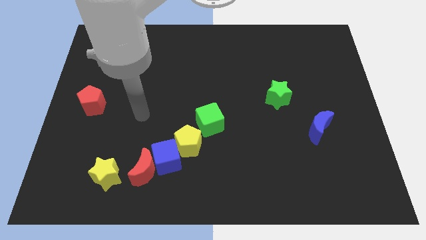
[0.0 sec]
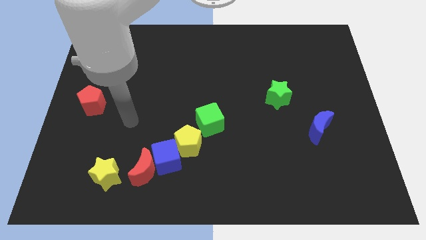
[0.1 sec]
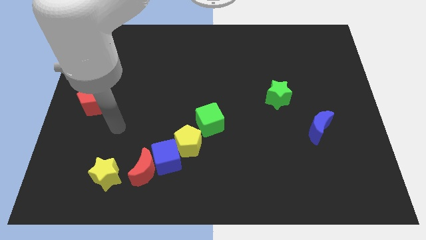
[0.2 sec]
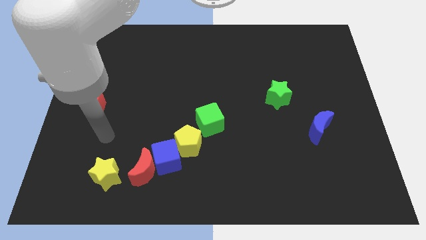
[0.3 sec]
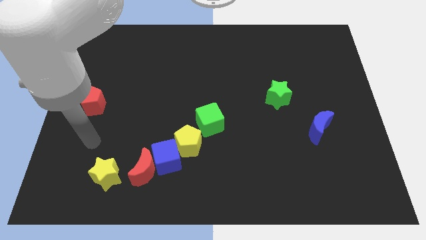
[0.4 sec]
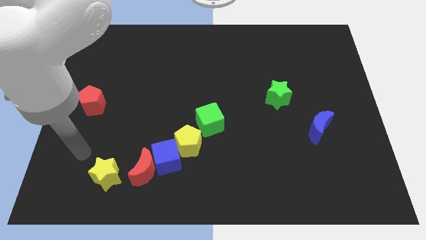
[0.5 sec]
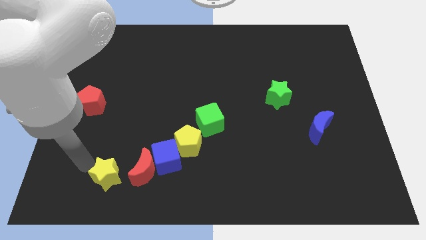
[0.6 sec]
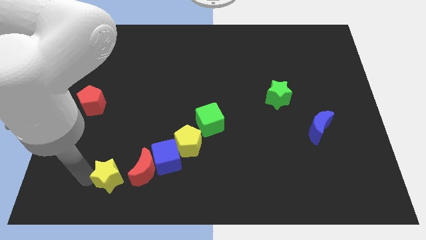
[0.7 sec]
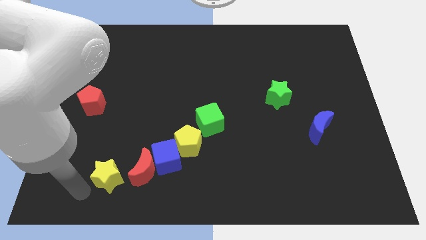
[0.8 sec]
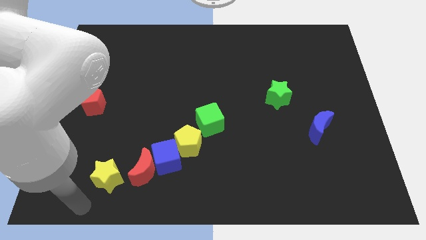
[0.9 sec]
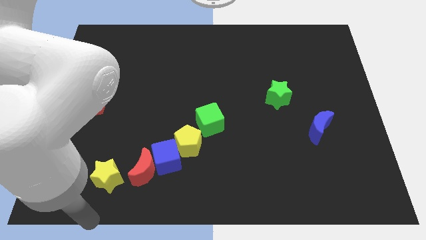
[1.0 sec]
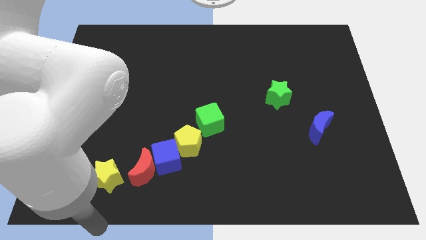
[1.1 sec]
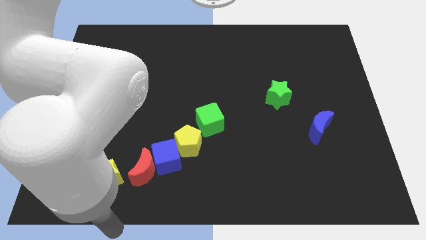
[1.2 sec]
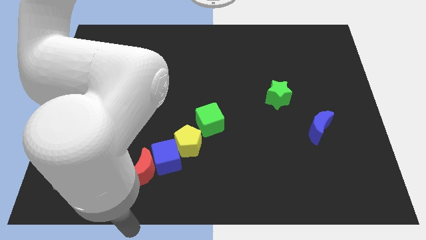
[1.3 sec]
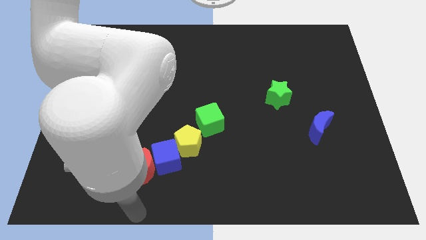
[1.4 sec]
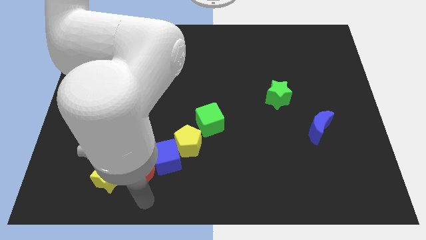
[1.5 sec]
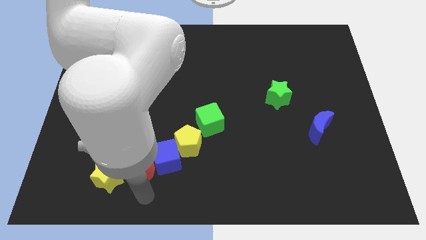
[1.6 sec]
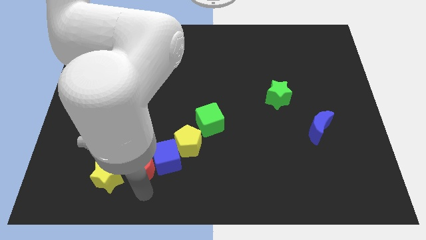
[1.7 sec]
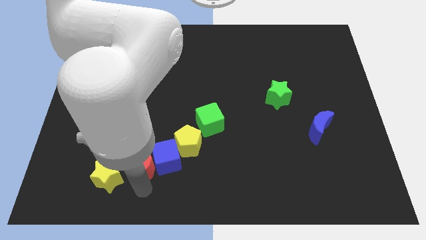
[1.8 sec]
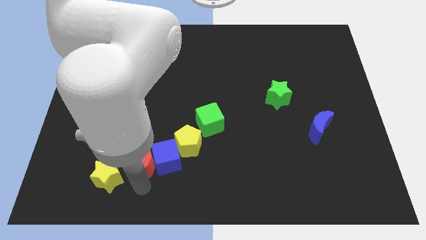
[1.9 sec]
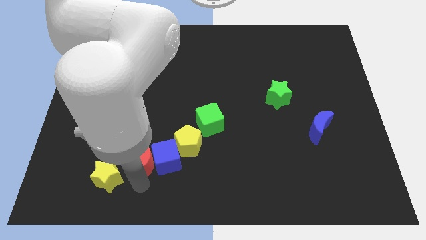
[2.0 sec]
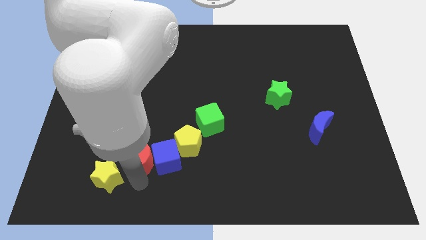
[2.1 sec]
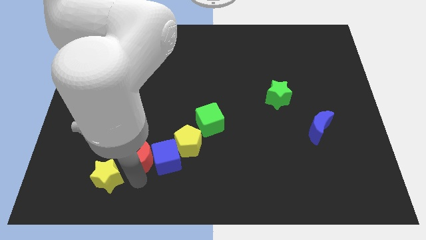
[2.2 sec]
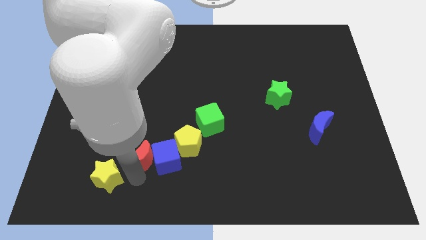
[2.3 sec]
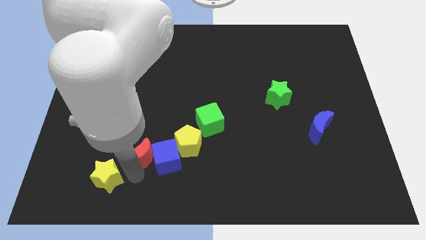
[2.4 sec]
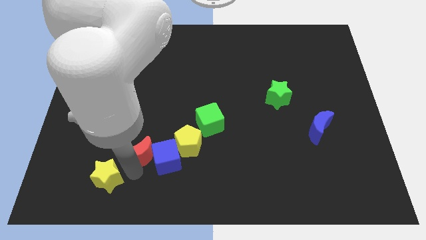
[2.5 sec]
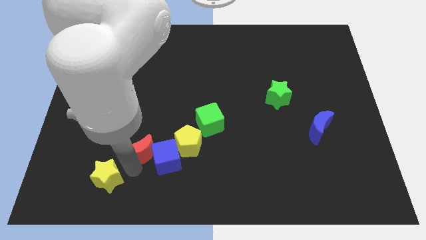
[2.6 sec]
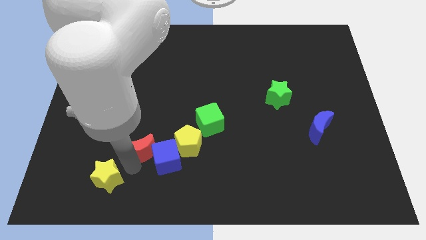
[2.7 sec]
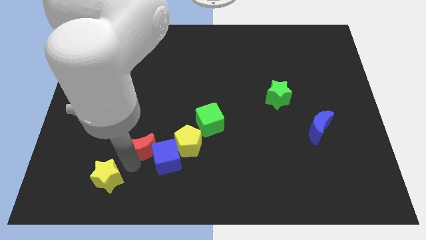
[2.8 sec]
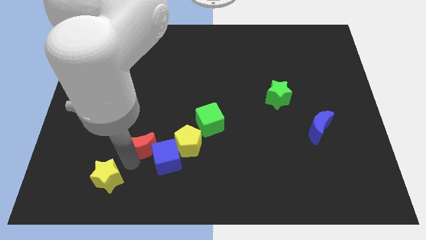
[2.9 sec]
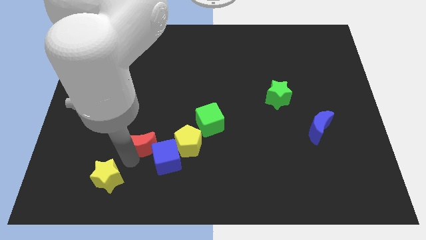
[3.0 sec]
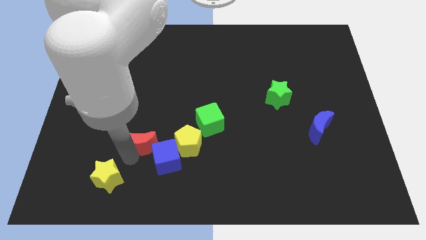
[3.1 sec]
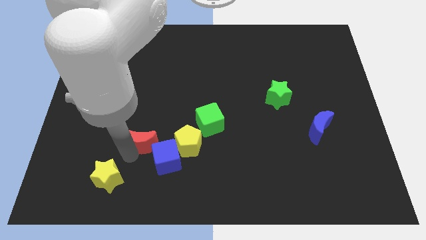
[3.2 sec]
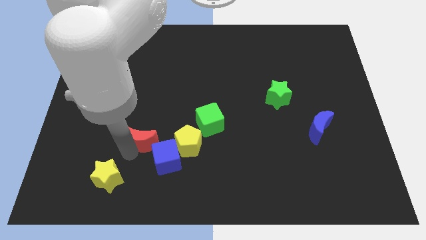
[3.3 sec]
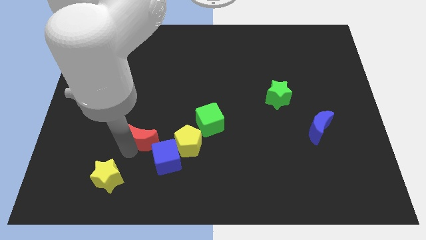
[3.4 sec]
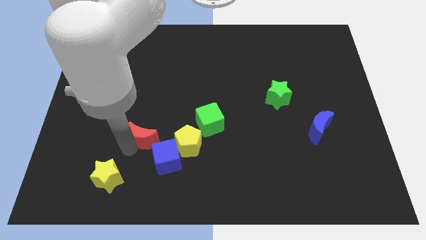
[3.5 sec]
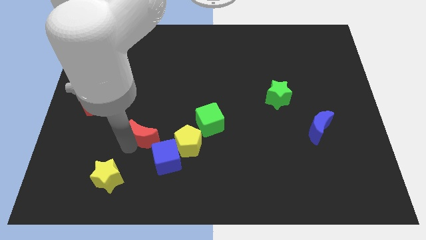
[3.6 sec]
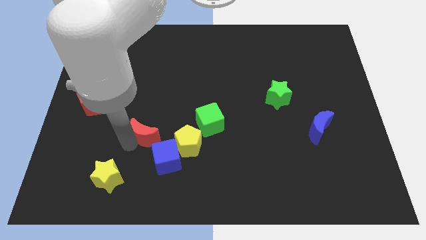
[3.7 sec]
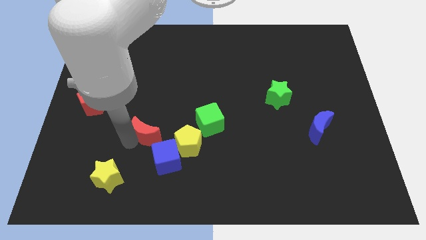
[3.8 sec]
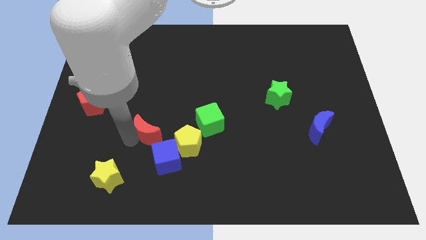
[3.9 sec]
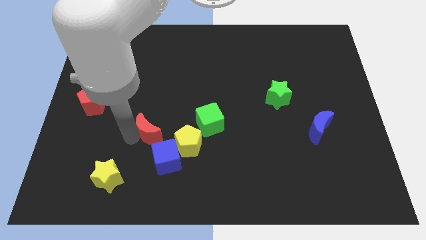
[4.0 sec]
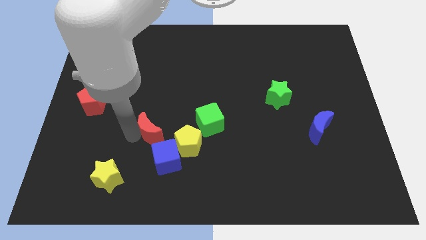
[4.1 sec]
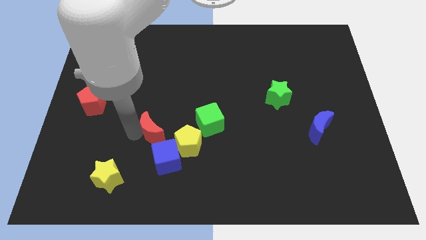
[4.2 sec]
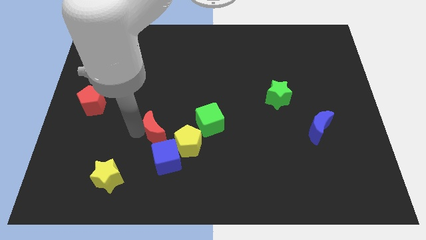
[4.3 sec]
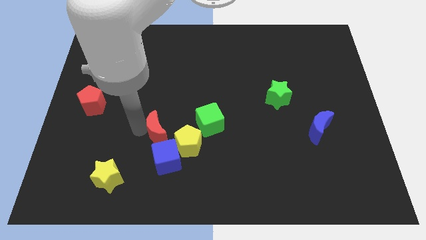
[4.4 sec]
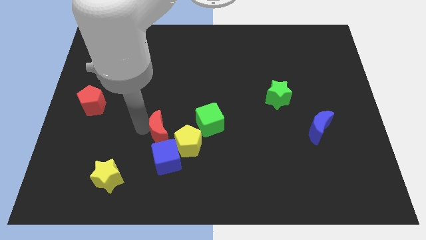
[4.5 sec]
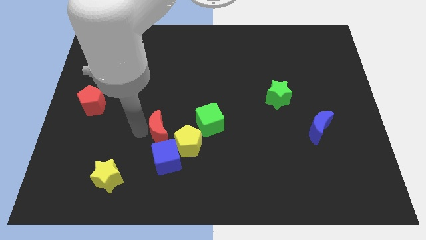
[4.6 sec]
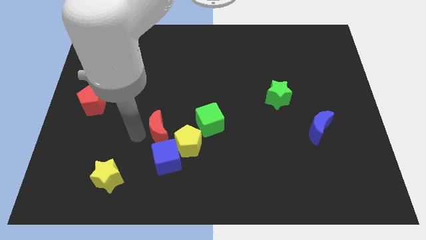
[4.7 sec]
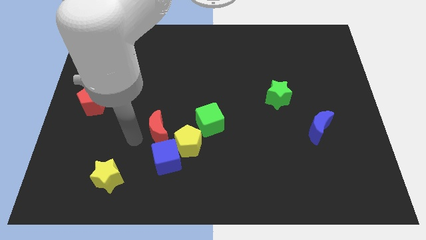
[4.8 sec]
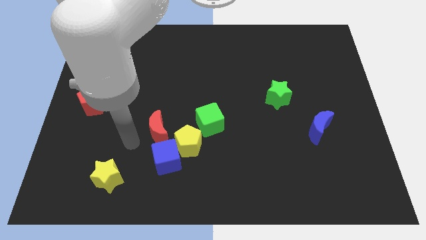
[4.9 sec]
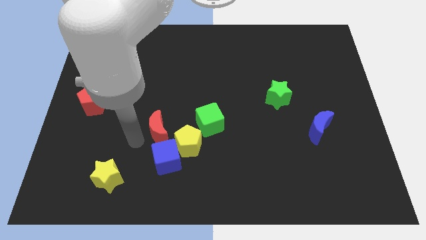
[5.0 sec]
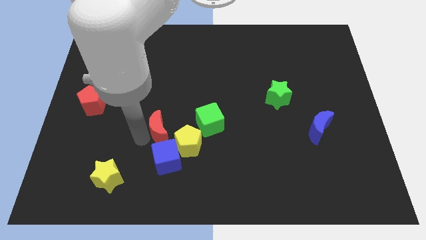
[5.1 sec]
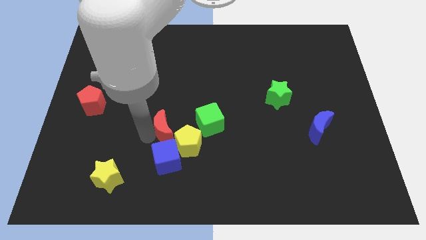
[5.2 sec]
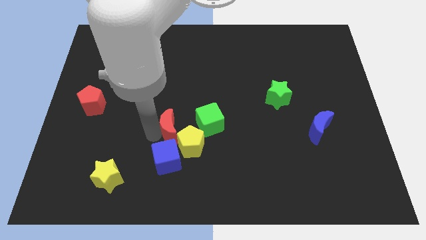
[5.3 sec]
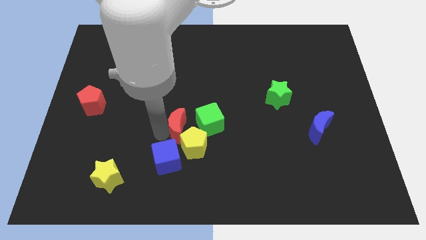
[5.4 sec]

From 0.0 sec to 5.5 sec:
slide the red moon to the center of the board
